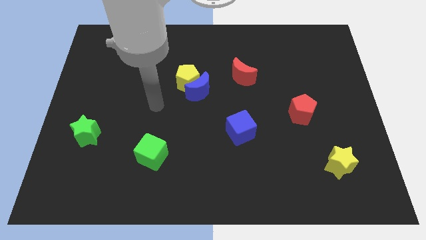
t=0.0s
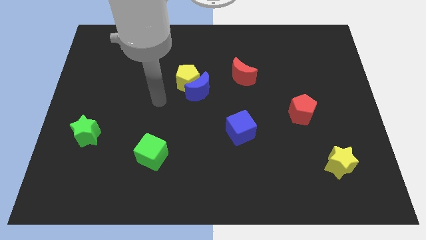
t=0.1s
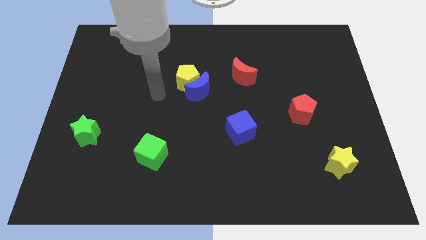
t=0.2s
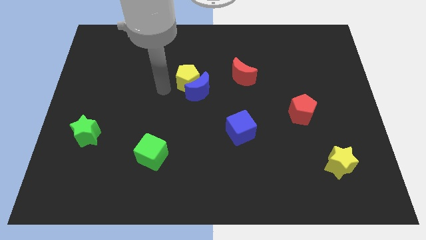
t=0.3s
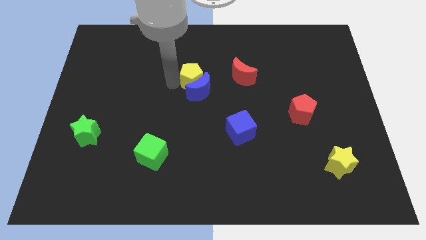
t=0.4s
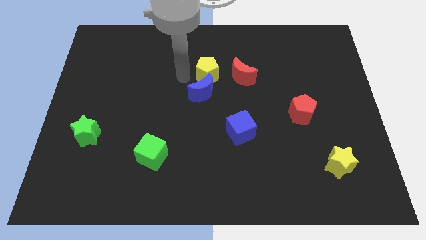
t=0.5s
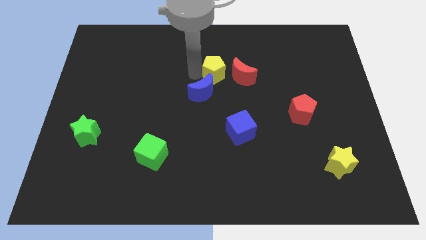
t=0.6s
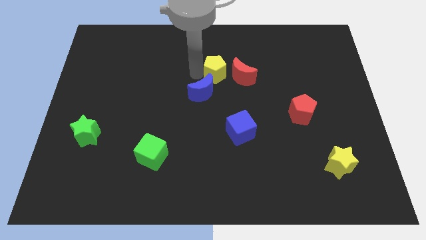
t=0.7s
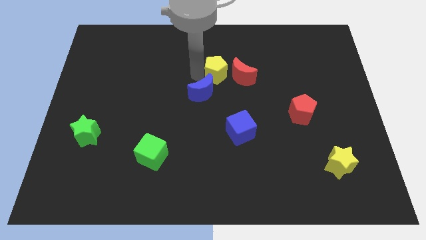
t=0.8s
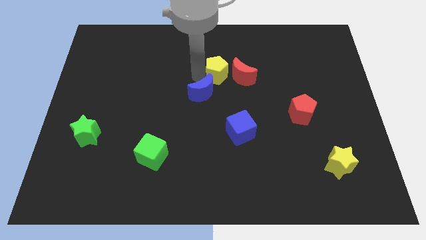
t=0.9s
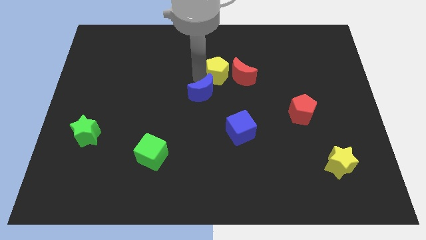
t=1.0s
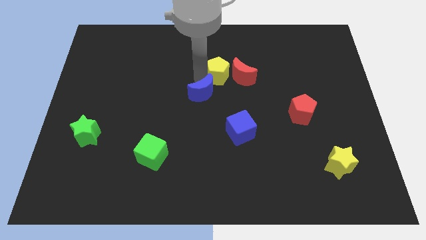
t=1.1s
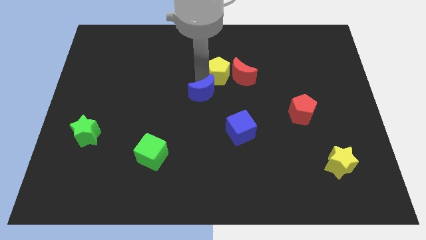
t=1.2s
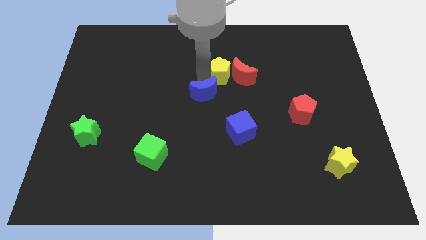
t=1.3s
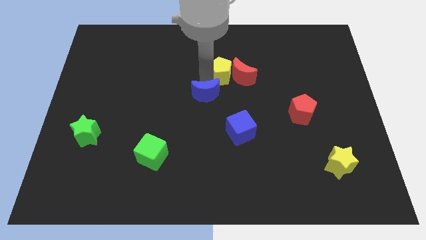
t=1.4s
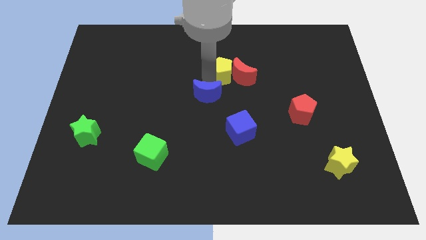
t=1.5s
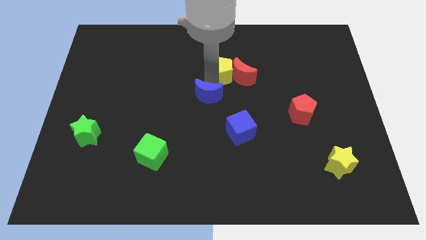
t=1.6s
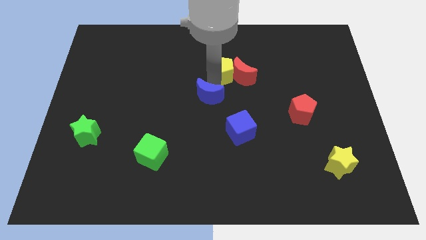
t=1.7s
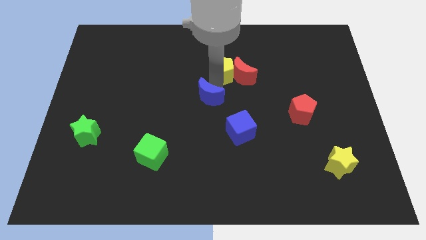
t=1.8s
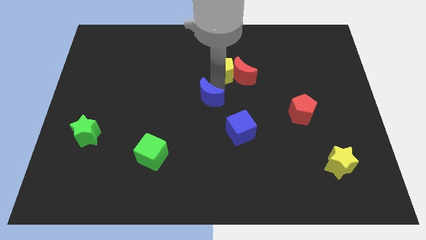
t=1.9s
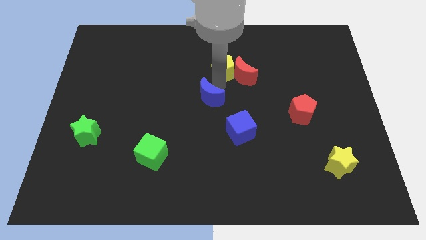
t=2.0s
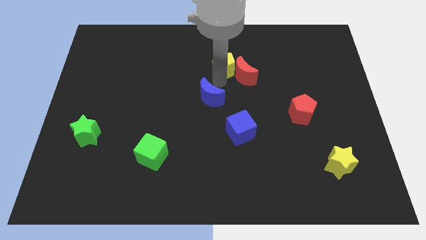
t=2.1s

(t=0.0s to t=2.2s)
pull the blue moon apart from the yellow pentagon

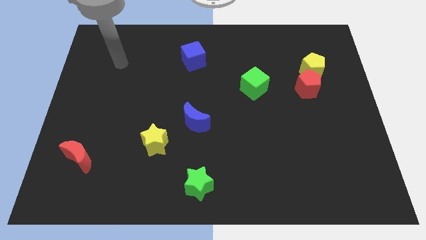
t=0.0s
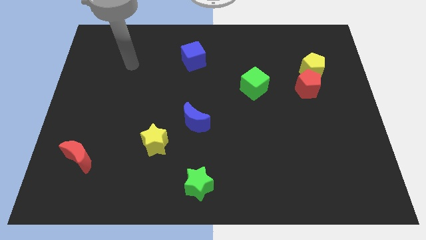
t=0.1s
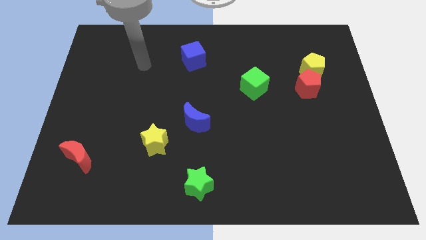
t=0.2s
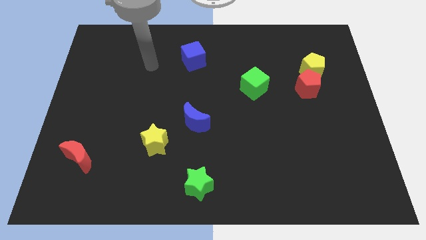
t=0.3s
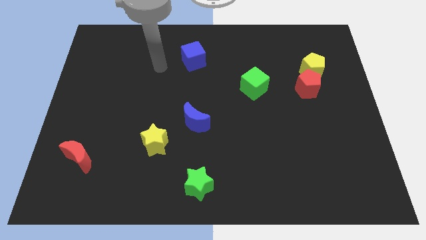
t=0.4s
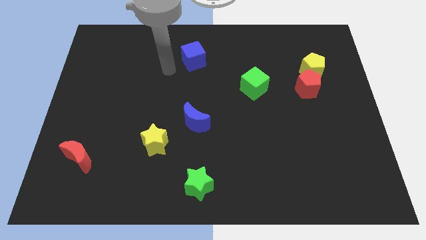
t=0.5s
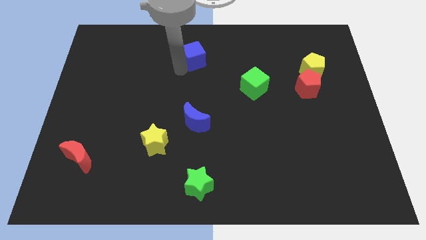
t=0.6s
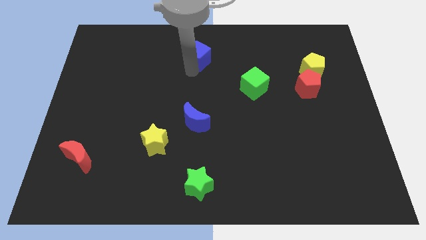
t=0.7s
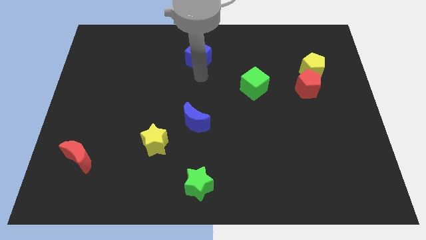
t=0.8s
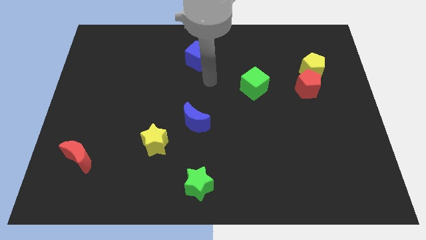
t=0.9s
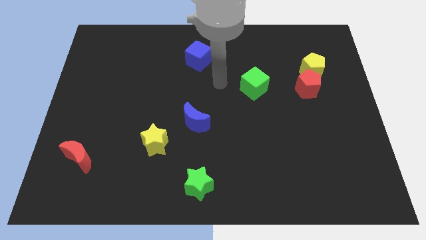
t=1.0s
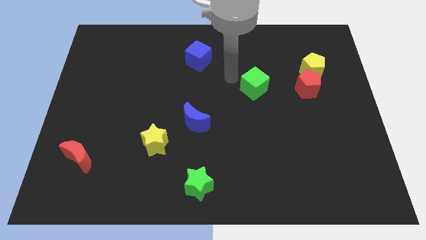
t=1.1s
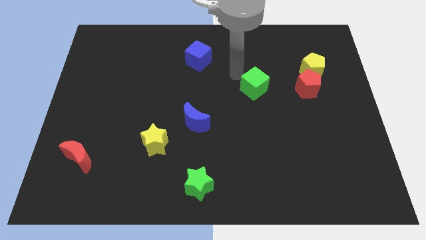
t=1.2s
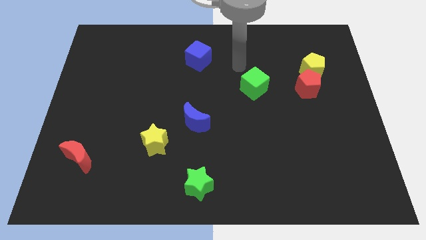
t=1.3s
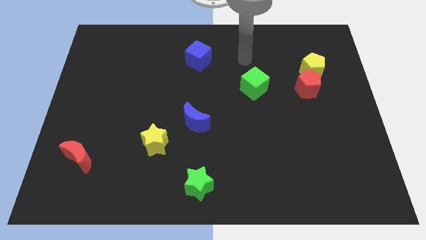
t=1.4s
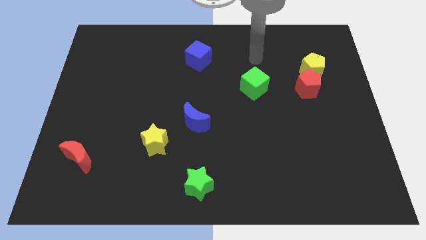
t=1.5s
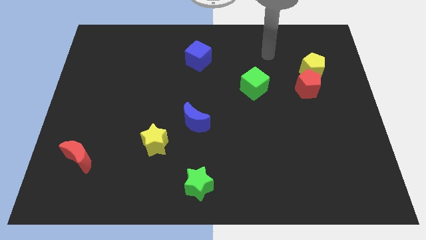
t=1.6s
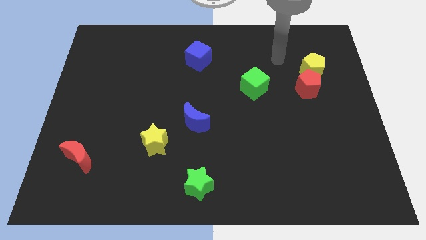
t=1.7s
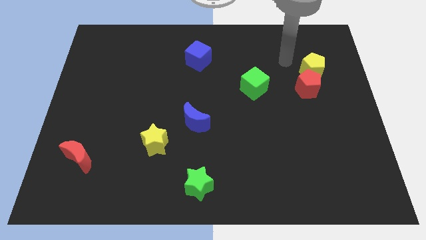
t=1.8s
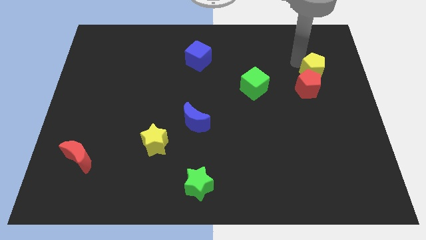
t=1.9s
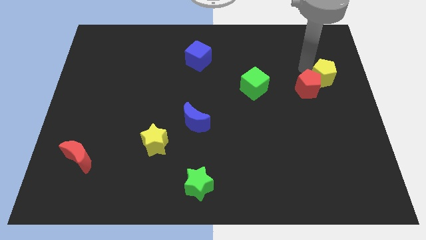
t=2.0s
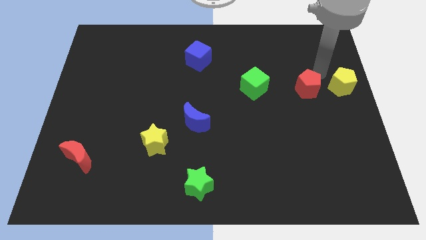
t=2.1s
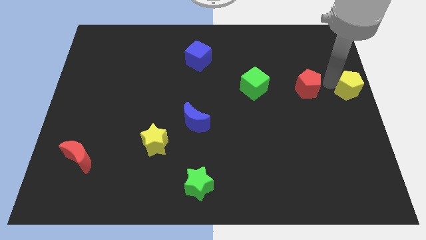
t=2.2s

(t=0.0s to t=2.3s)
separate the red pentagon from the yellow pentagon

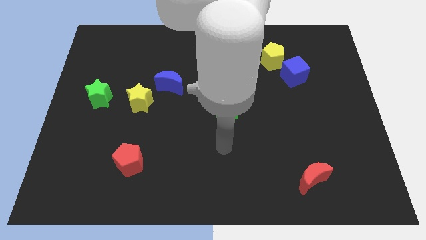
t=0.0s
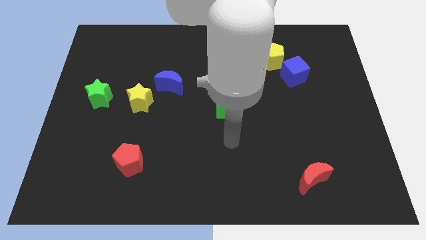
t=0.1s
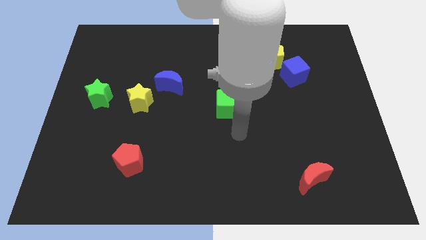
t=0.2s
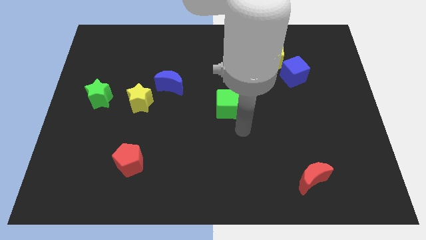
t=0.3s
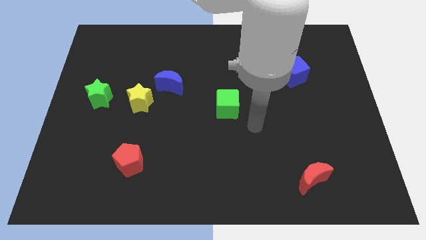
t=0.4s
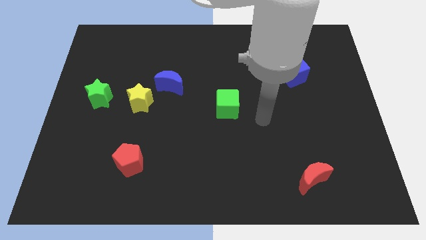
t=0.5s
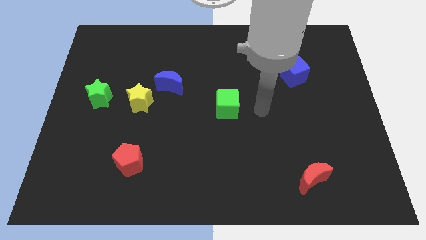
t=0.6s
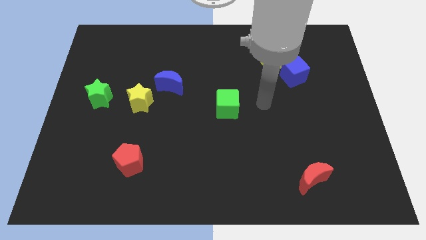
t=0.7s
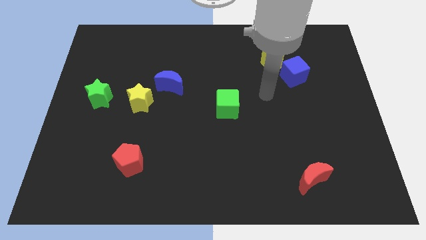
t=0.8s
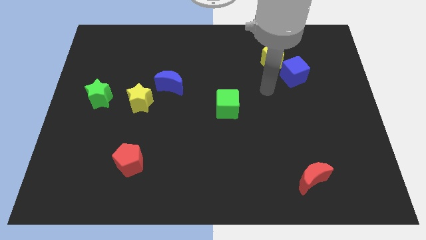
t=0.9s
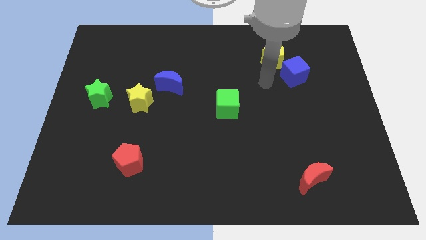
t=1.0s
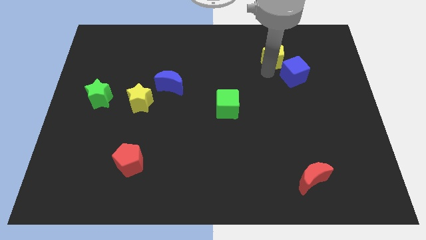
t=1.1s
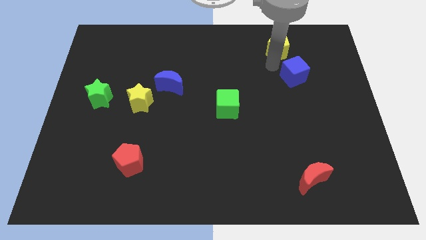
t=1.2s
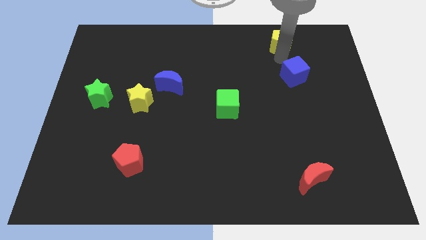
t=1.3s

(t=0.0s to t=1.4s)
move the blue cube away from the yellow pentagon

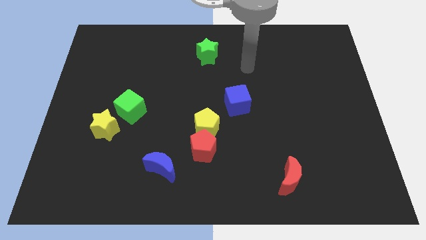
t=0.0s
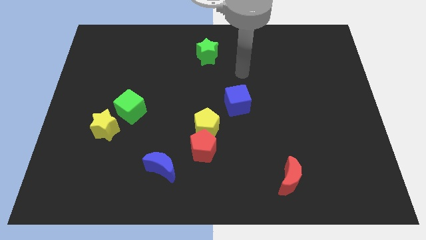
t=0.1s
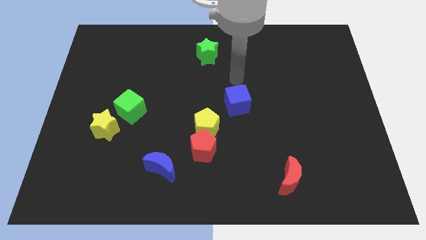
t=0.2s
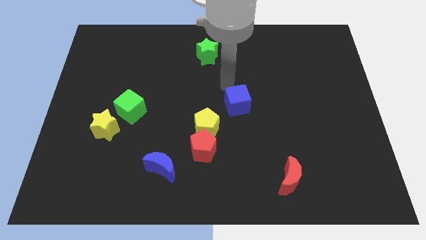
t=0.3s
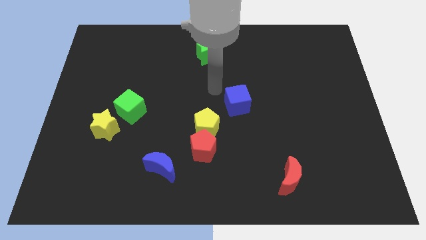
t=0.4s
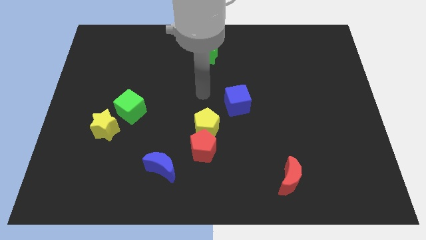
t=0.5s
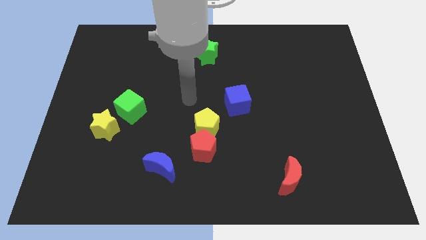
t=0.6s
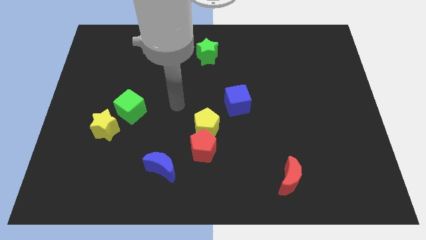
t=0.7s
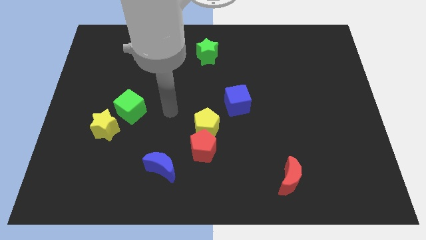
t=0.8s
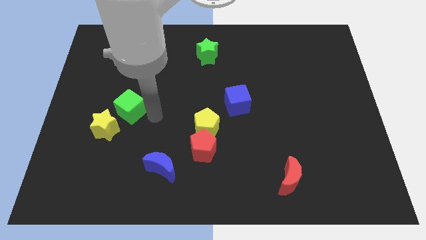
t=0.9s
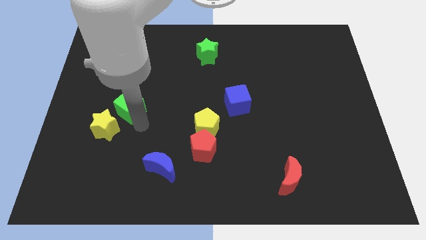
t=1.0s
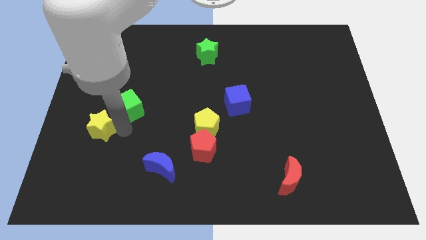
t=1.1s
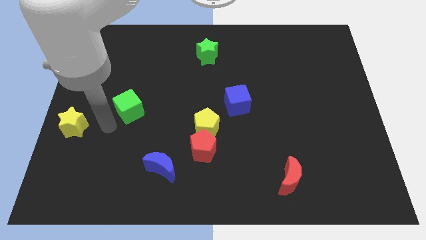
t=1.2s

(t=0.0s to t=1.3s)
move the green cube away from the yellow star

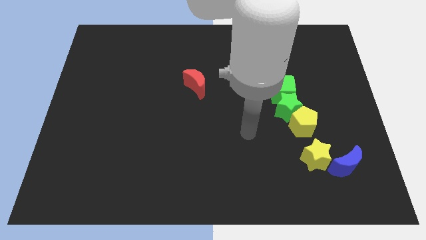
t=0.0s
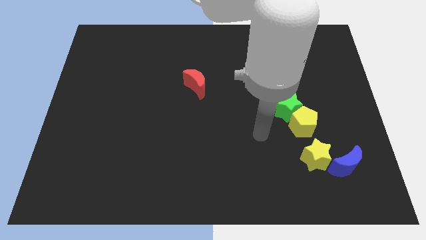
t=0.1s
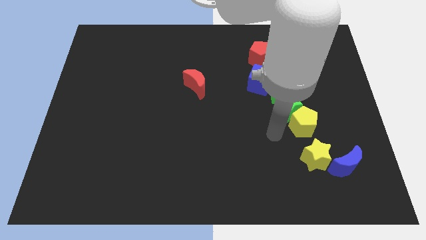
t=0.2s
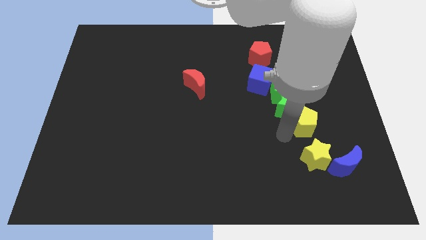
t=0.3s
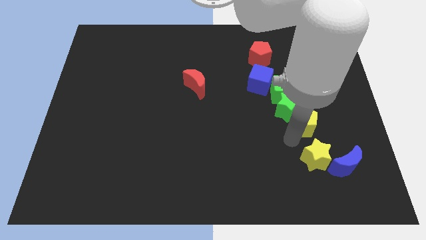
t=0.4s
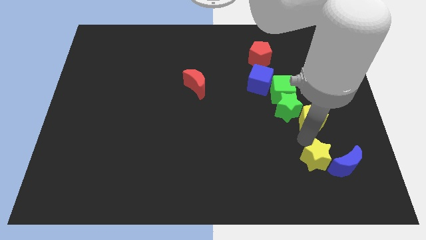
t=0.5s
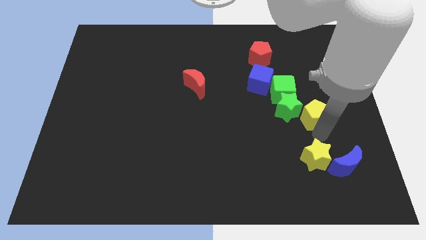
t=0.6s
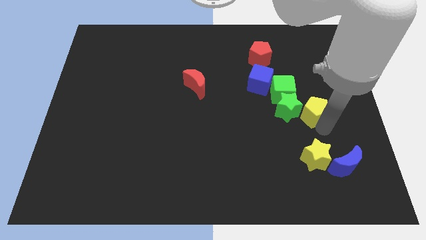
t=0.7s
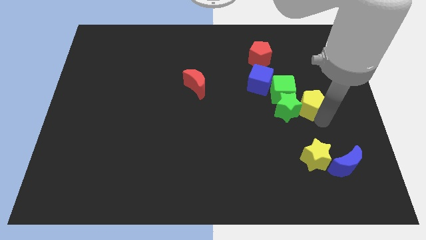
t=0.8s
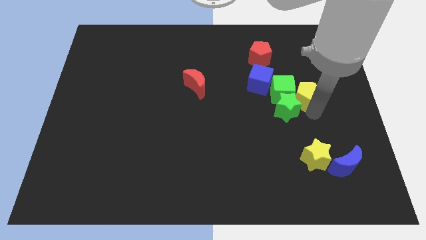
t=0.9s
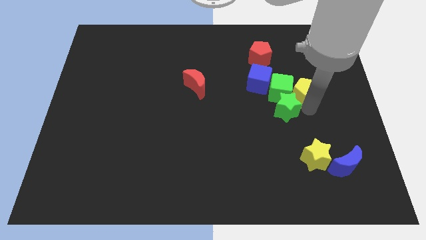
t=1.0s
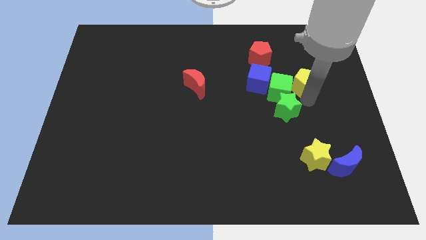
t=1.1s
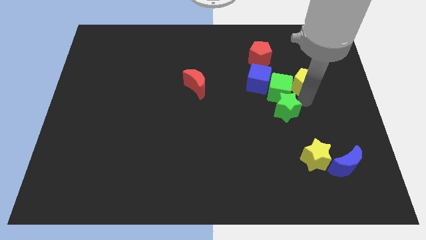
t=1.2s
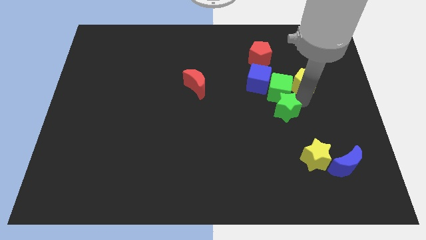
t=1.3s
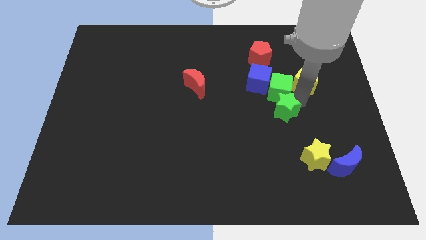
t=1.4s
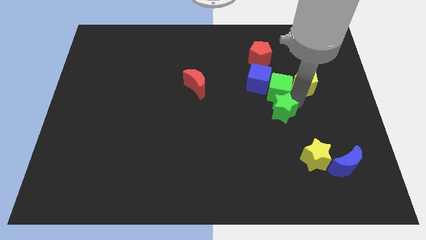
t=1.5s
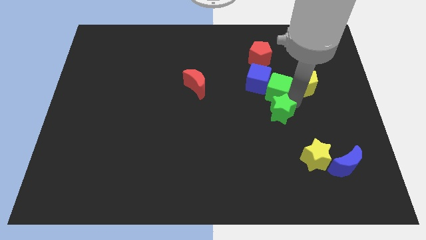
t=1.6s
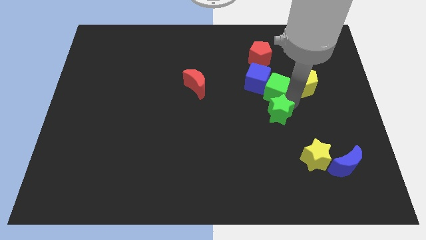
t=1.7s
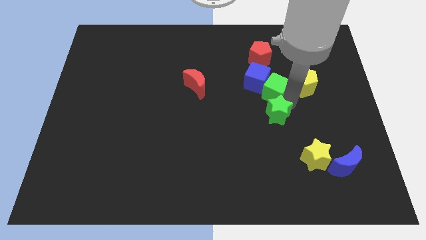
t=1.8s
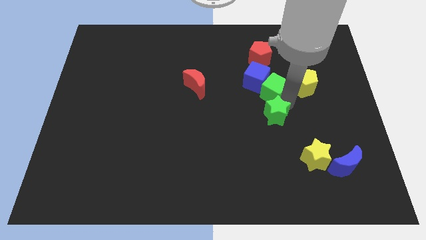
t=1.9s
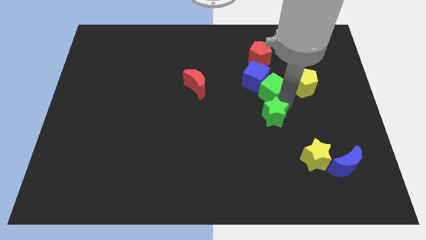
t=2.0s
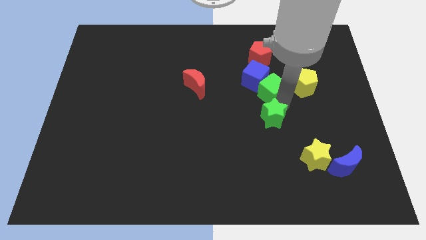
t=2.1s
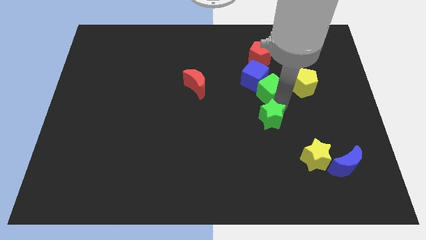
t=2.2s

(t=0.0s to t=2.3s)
separate the green star from the yellow pentagon and green cube
